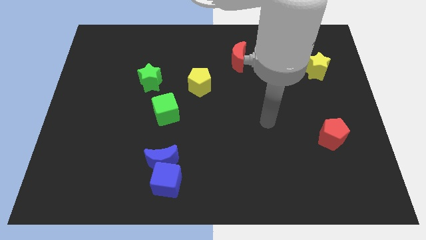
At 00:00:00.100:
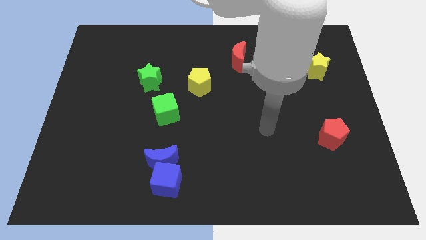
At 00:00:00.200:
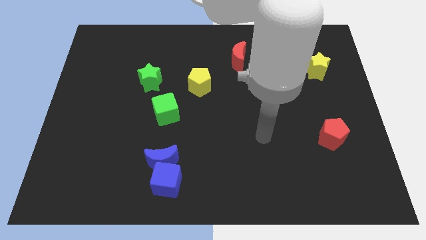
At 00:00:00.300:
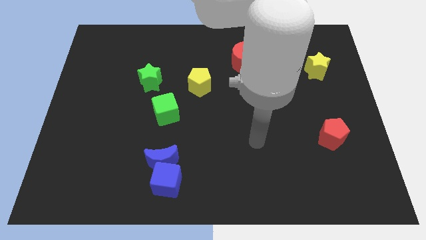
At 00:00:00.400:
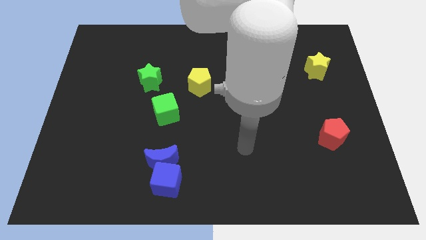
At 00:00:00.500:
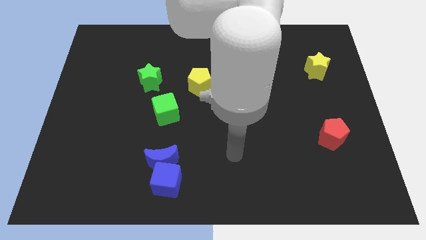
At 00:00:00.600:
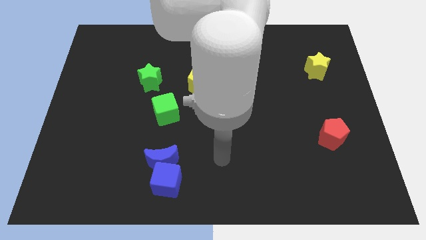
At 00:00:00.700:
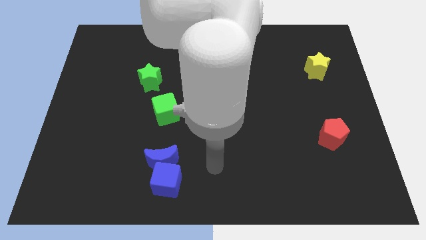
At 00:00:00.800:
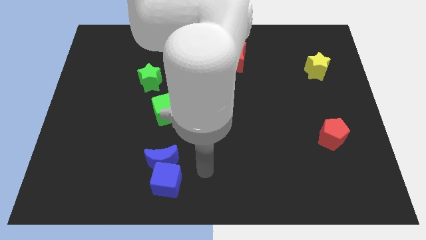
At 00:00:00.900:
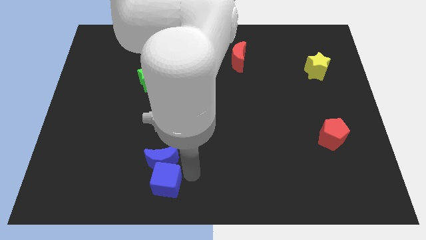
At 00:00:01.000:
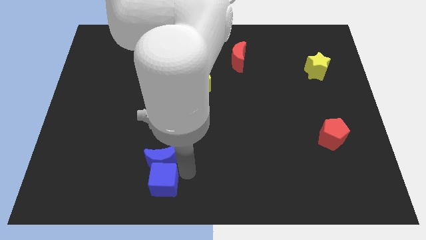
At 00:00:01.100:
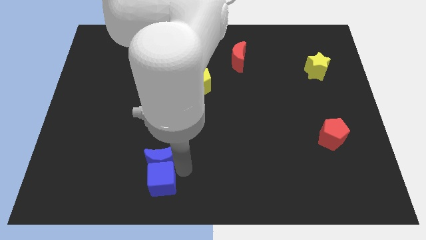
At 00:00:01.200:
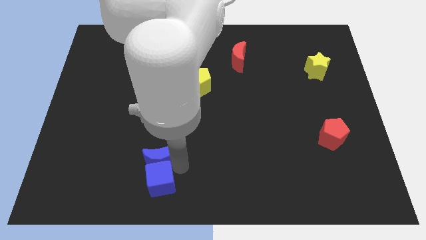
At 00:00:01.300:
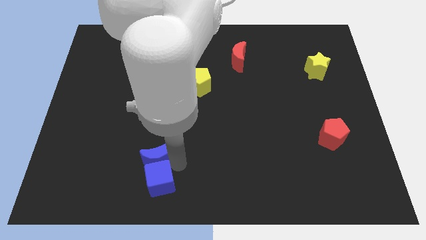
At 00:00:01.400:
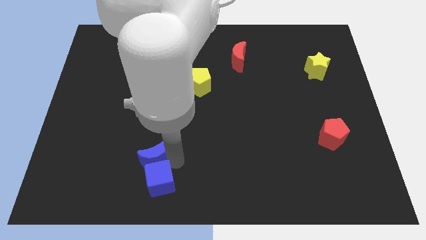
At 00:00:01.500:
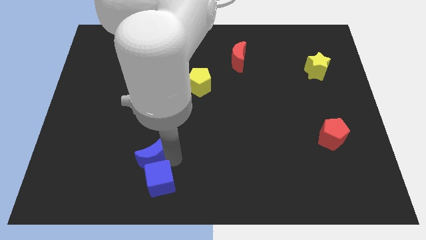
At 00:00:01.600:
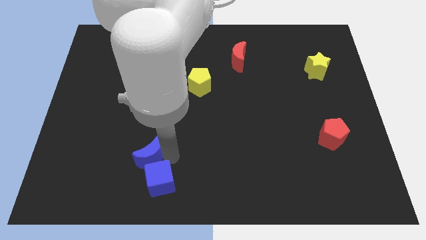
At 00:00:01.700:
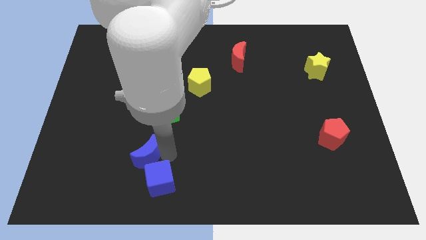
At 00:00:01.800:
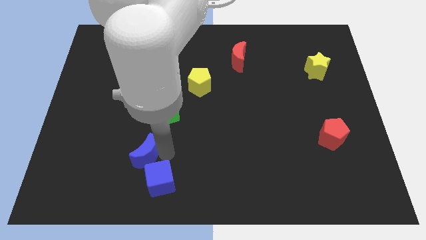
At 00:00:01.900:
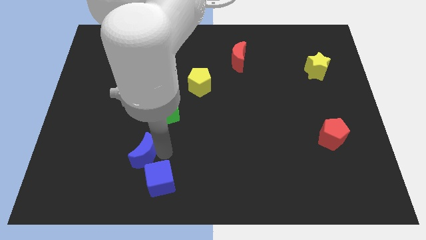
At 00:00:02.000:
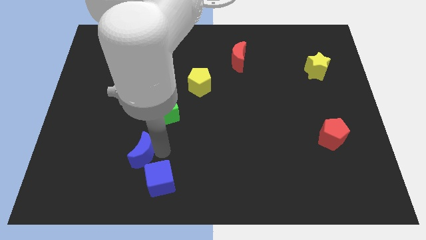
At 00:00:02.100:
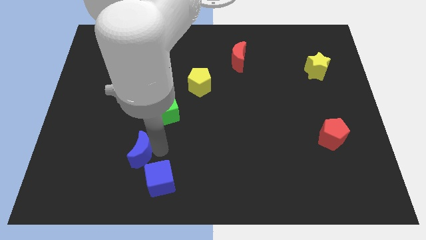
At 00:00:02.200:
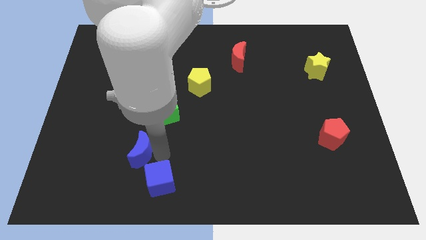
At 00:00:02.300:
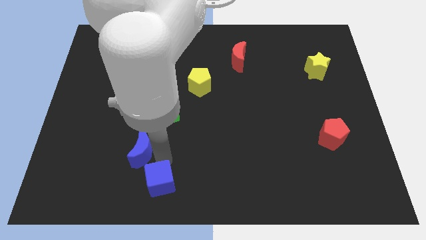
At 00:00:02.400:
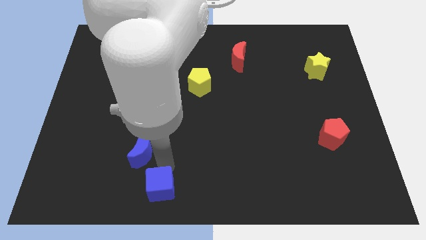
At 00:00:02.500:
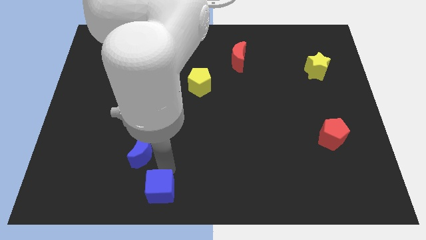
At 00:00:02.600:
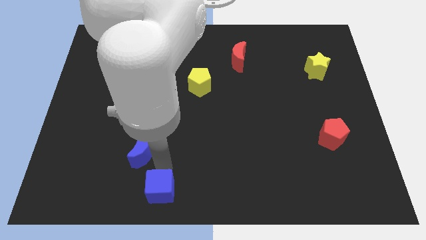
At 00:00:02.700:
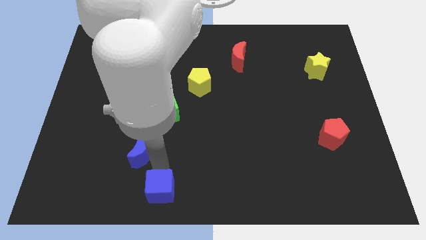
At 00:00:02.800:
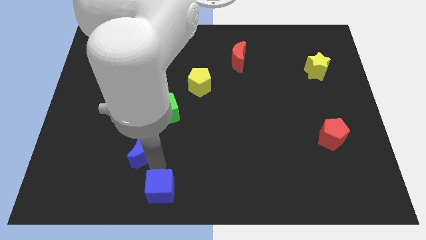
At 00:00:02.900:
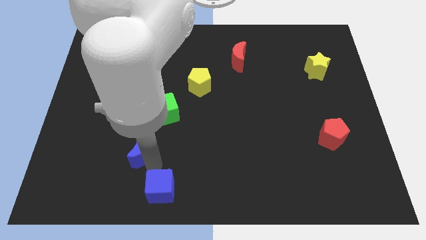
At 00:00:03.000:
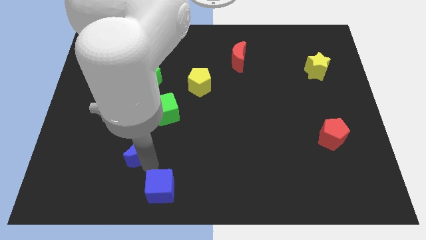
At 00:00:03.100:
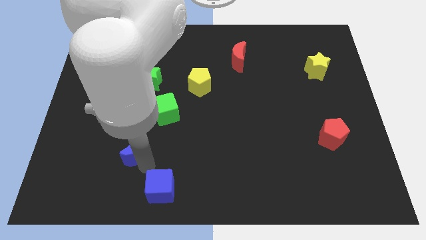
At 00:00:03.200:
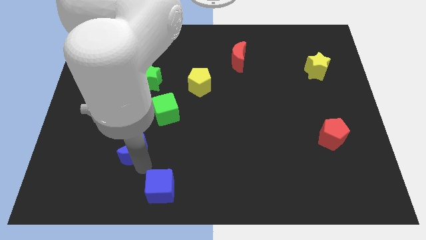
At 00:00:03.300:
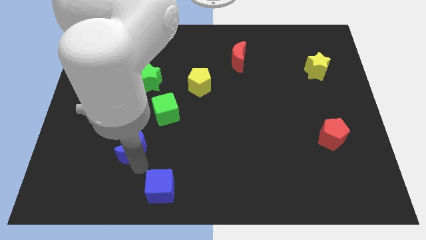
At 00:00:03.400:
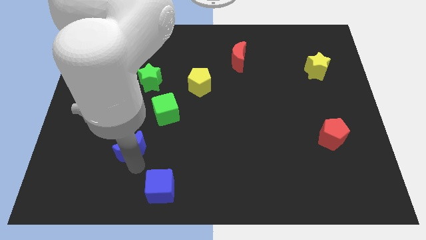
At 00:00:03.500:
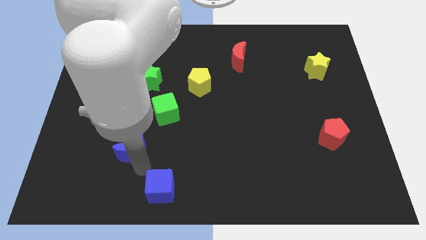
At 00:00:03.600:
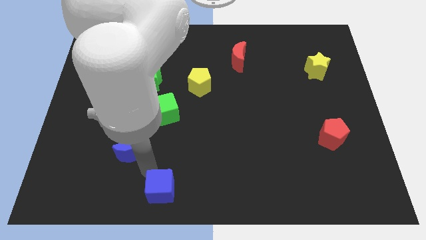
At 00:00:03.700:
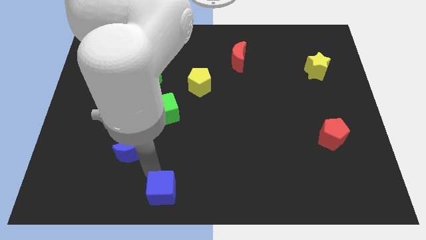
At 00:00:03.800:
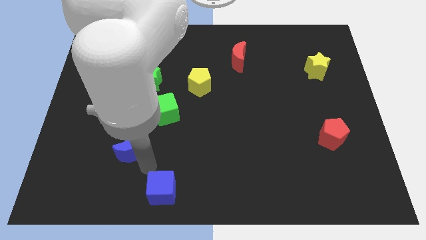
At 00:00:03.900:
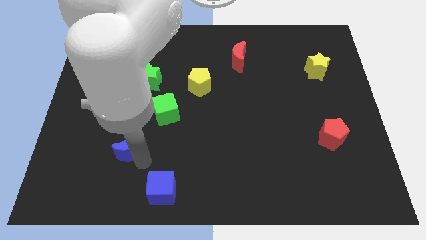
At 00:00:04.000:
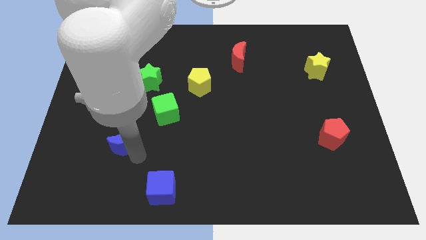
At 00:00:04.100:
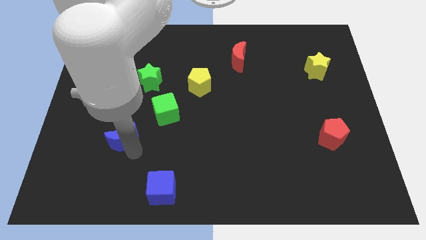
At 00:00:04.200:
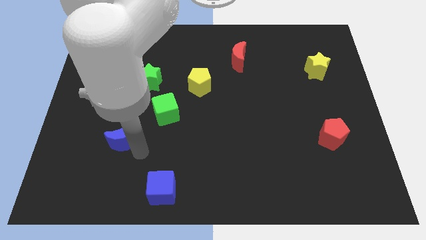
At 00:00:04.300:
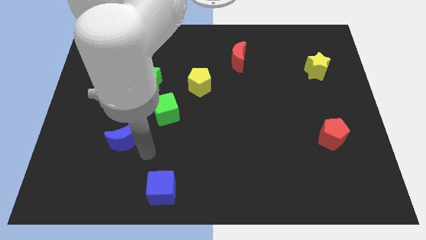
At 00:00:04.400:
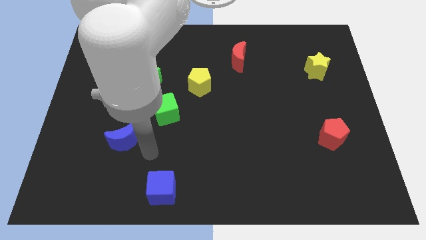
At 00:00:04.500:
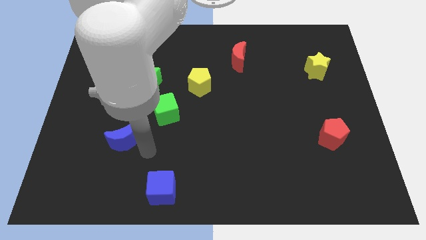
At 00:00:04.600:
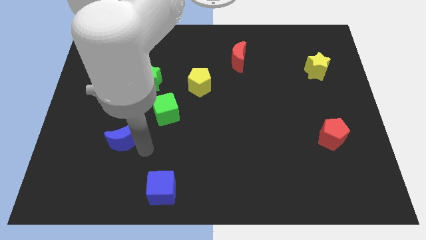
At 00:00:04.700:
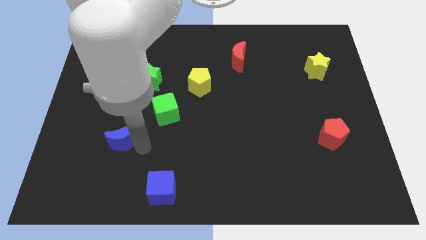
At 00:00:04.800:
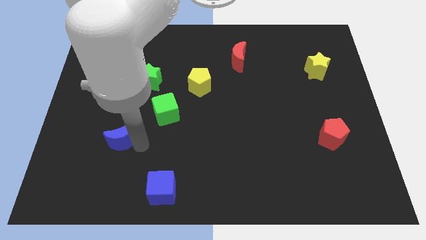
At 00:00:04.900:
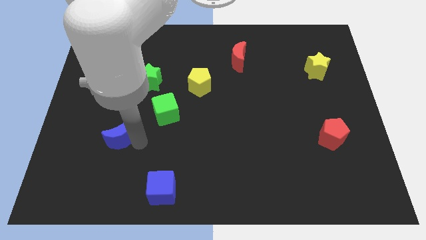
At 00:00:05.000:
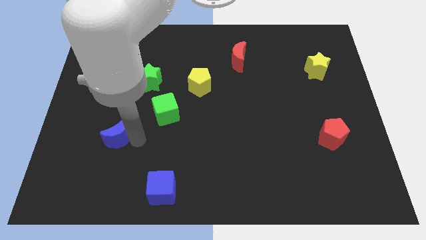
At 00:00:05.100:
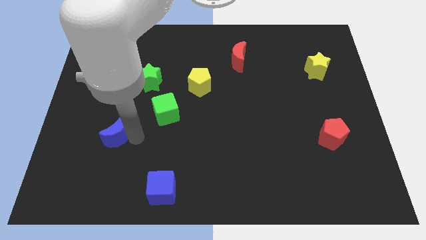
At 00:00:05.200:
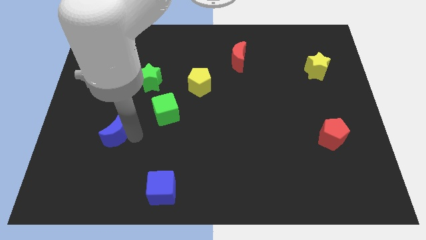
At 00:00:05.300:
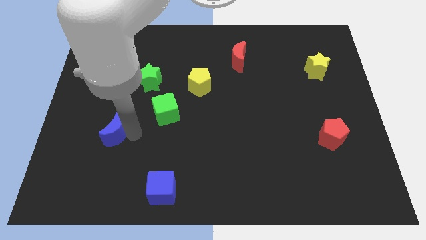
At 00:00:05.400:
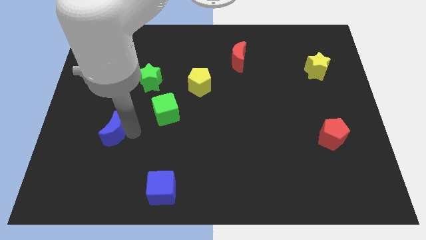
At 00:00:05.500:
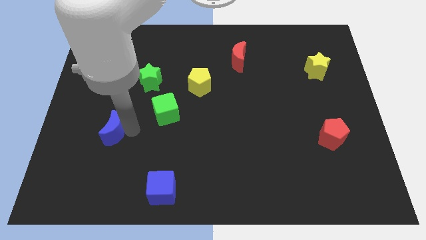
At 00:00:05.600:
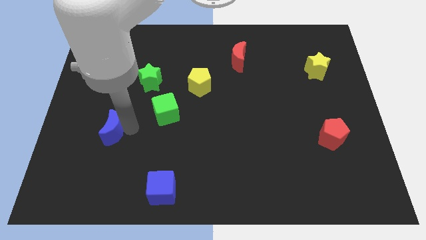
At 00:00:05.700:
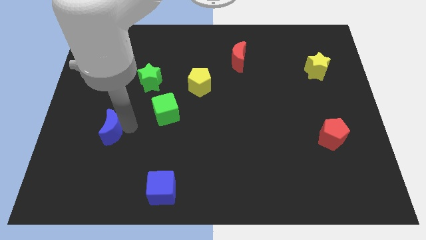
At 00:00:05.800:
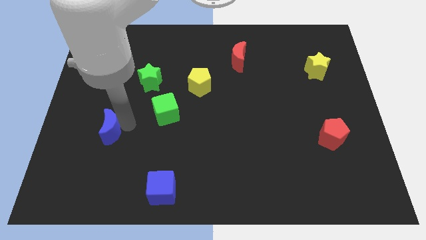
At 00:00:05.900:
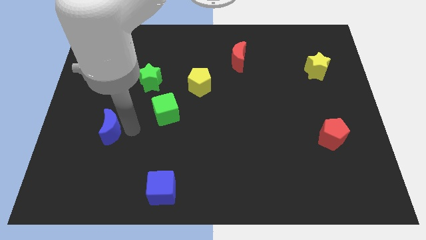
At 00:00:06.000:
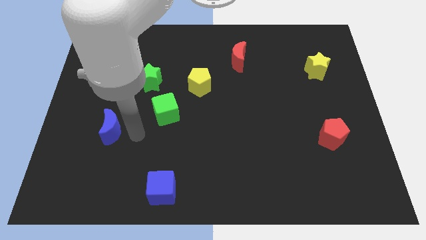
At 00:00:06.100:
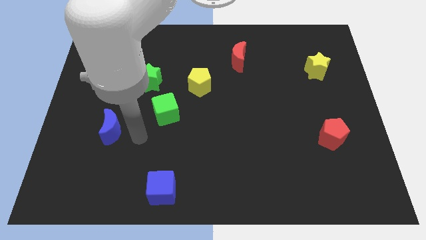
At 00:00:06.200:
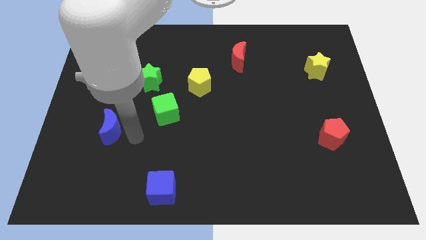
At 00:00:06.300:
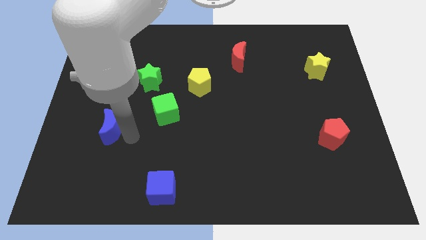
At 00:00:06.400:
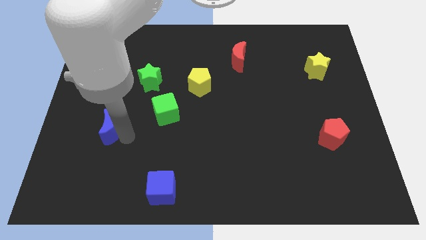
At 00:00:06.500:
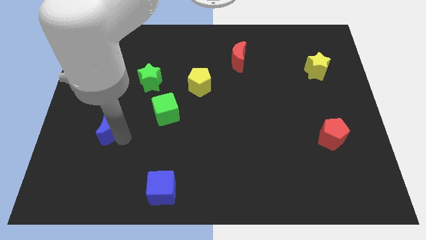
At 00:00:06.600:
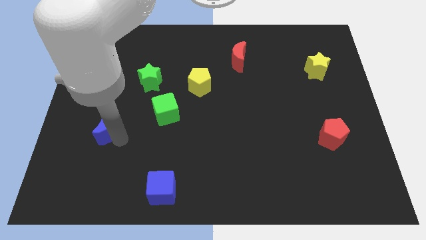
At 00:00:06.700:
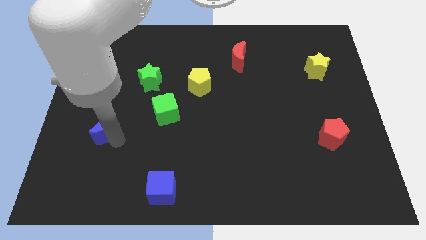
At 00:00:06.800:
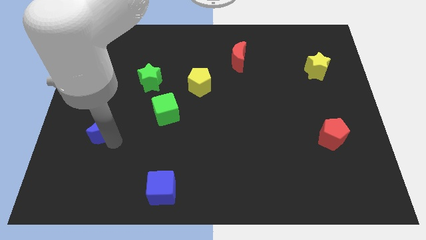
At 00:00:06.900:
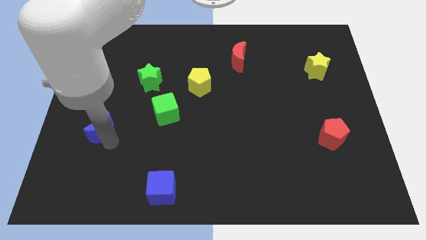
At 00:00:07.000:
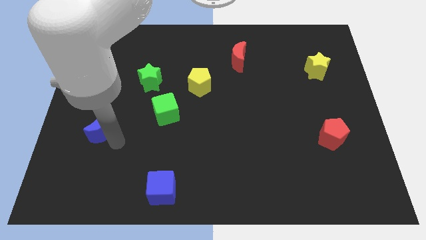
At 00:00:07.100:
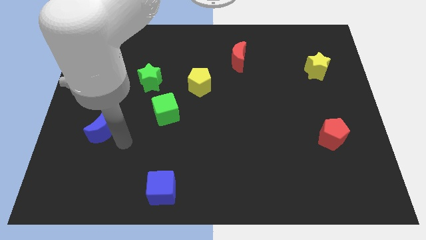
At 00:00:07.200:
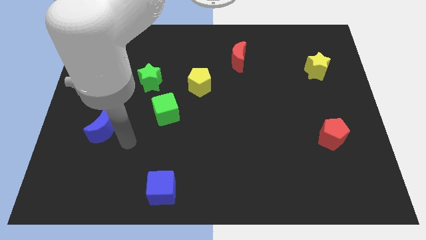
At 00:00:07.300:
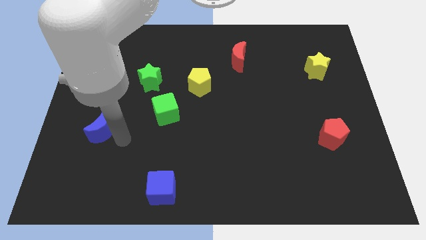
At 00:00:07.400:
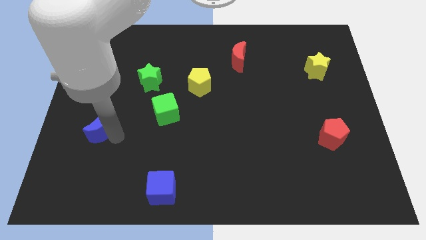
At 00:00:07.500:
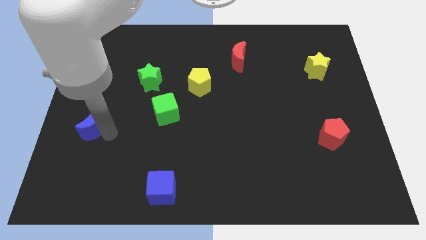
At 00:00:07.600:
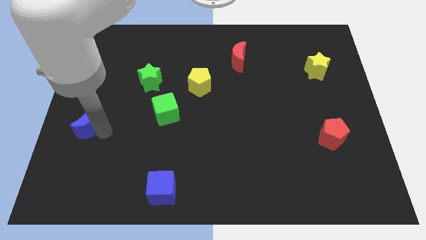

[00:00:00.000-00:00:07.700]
put the blue moon to the left side of the board
